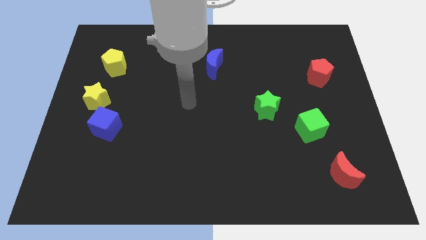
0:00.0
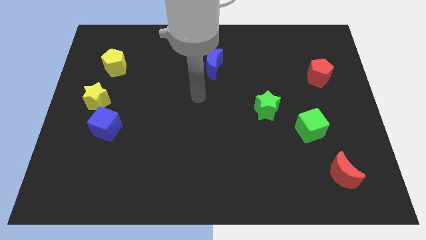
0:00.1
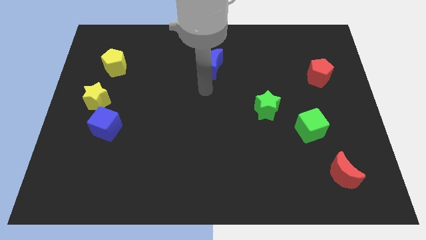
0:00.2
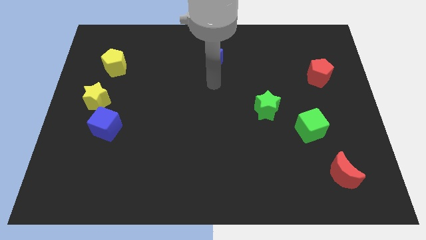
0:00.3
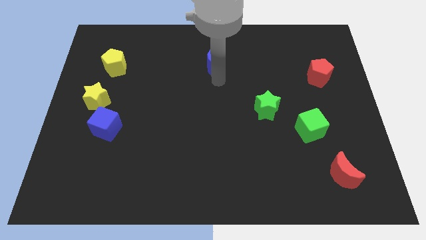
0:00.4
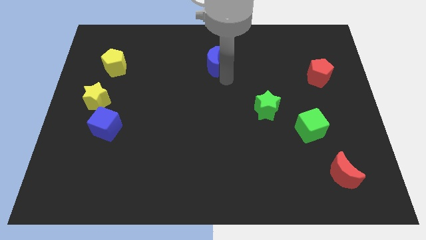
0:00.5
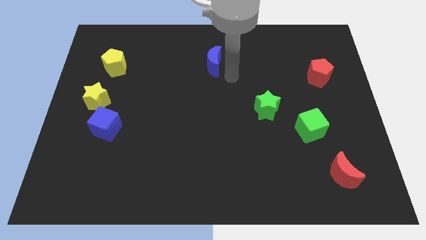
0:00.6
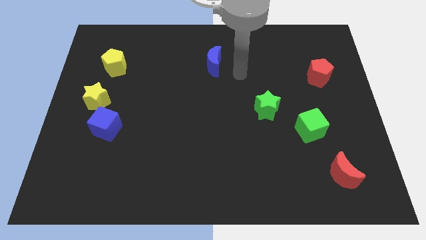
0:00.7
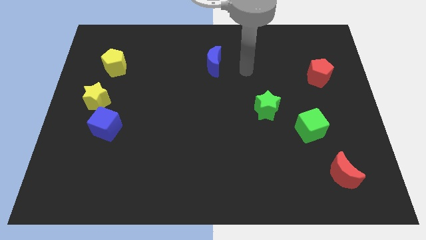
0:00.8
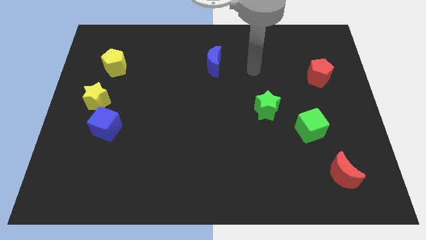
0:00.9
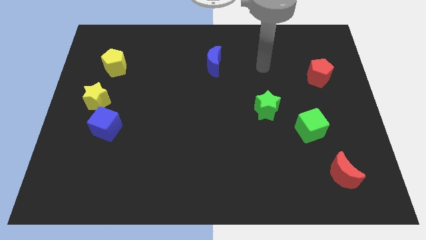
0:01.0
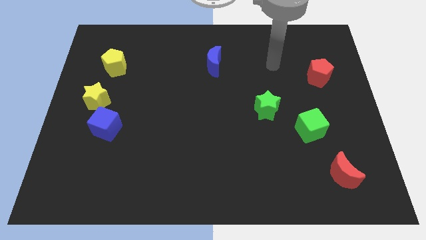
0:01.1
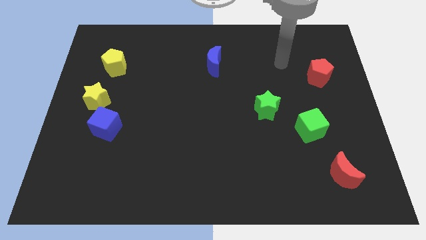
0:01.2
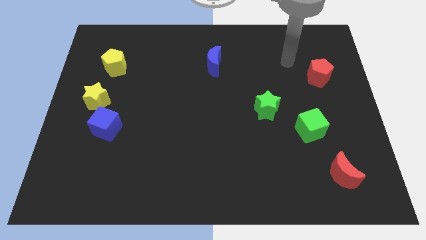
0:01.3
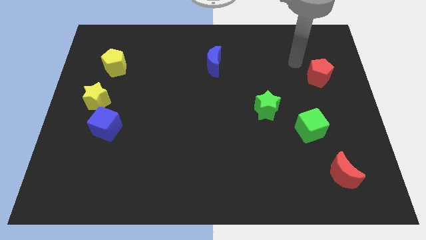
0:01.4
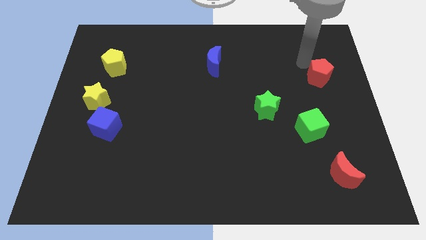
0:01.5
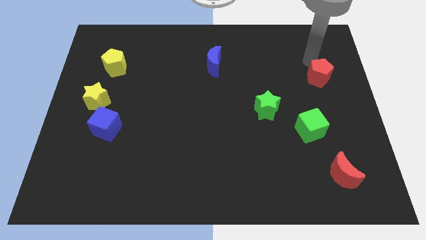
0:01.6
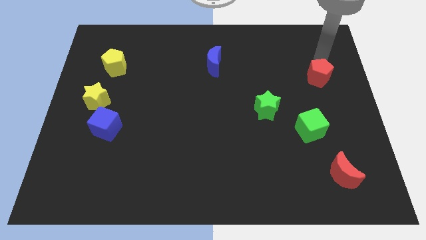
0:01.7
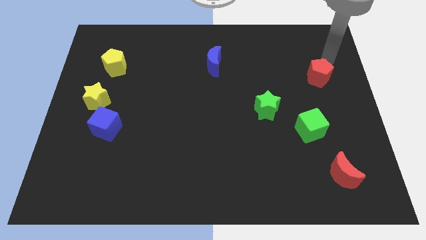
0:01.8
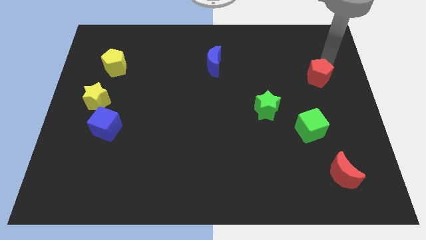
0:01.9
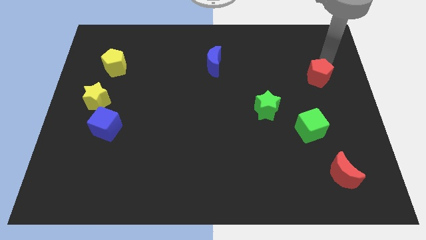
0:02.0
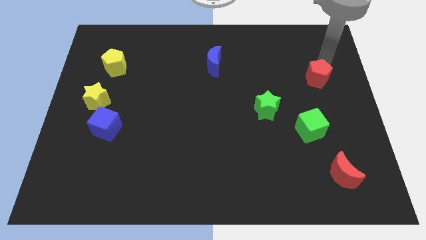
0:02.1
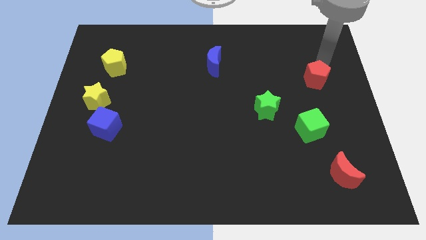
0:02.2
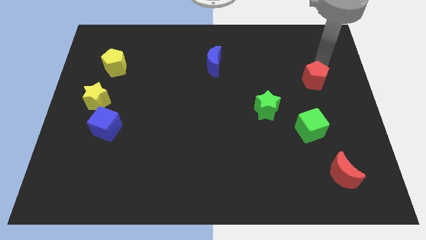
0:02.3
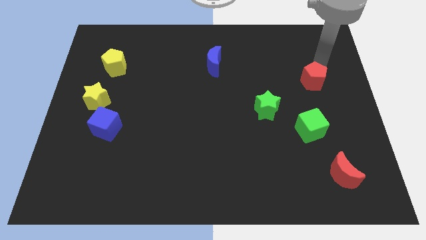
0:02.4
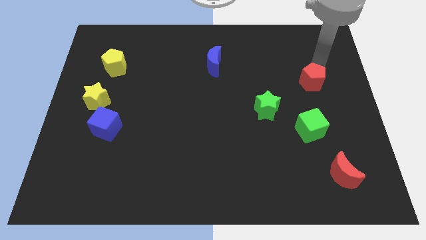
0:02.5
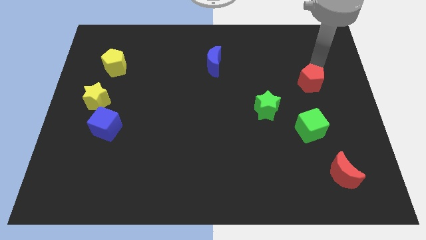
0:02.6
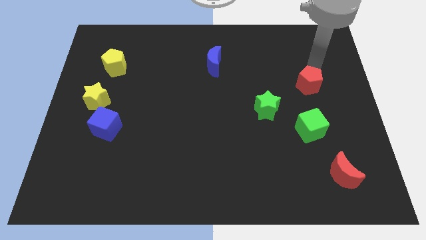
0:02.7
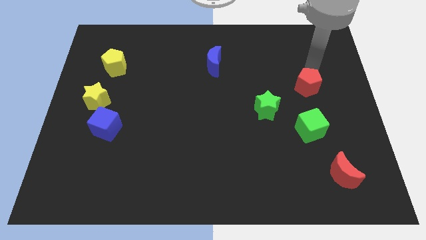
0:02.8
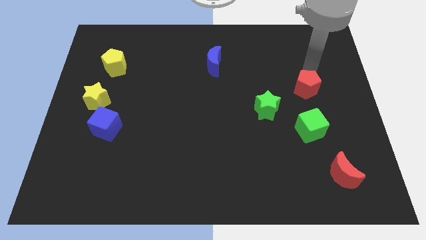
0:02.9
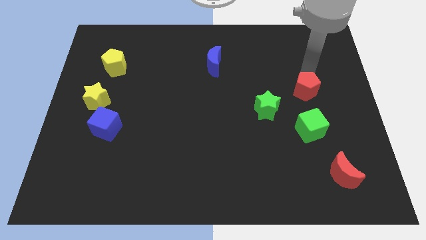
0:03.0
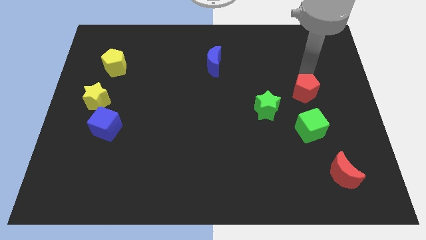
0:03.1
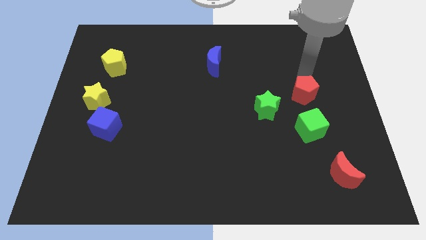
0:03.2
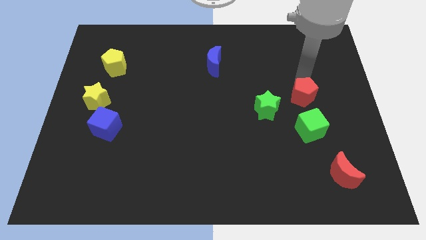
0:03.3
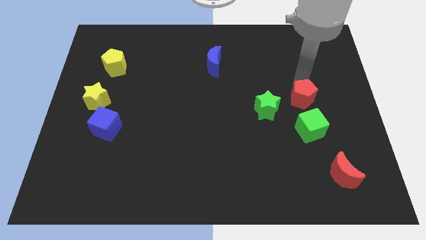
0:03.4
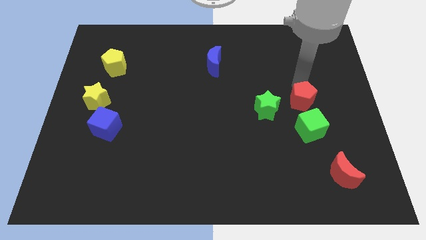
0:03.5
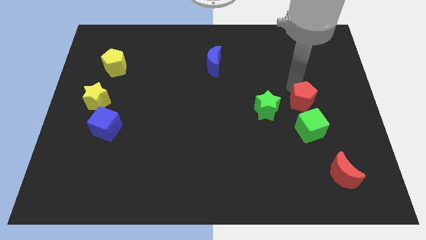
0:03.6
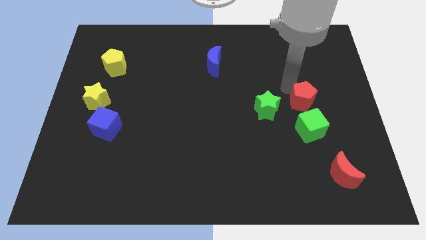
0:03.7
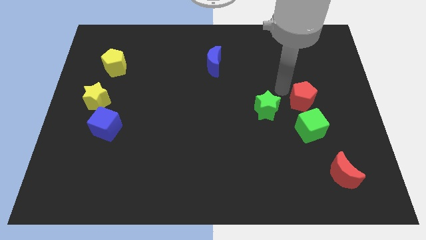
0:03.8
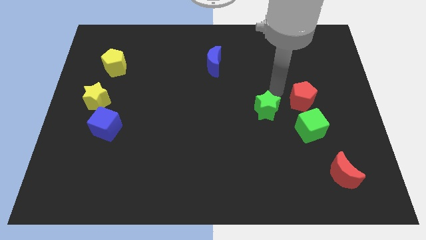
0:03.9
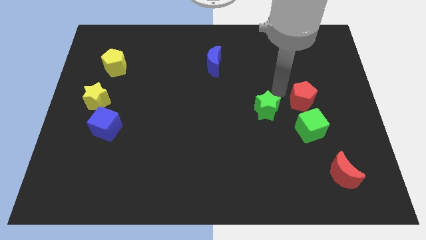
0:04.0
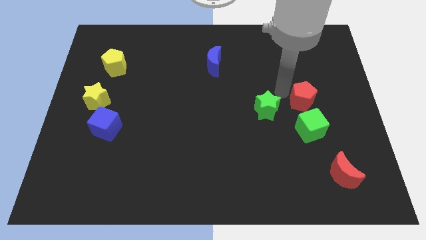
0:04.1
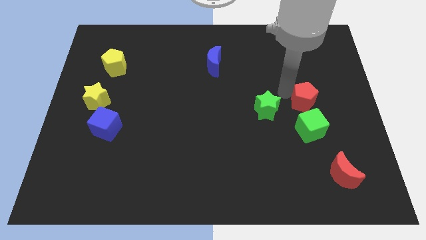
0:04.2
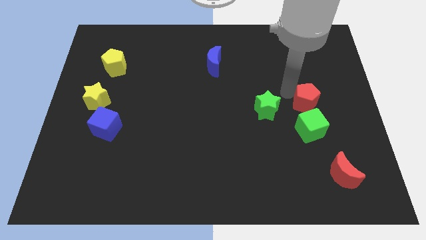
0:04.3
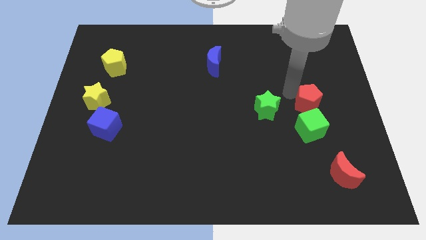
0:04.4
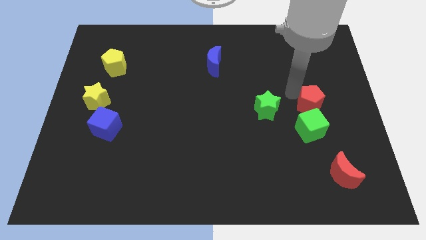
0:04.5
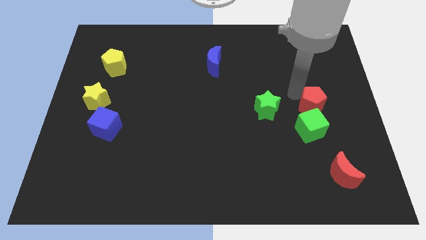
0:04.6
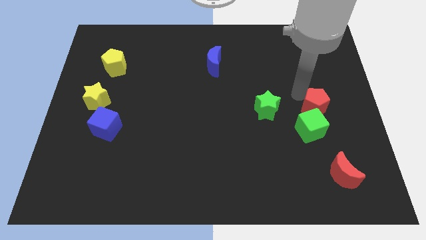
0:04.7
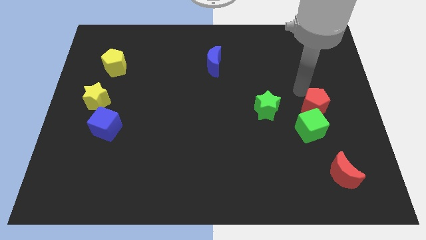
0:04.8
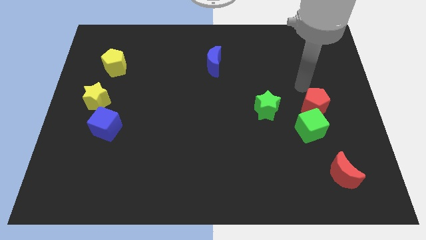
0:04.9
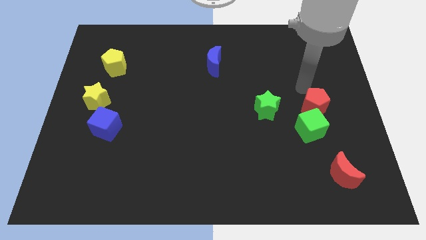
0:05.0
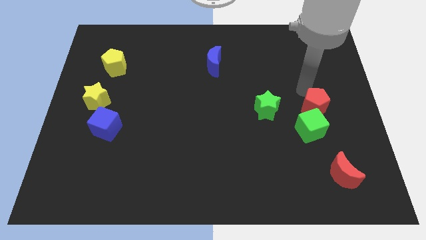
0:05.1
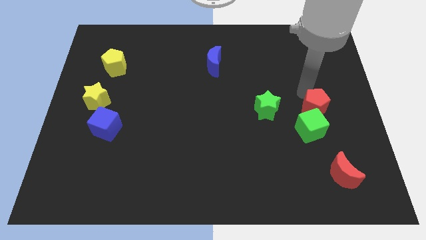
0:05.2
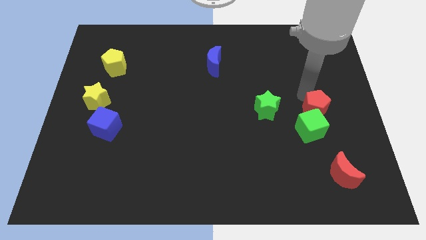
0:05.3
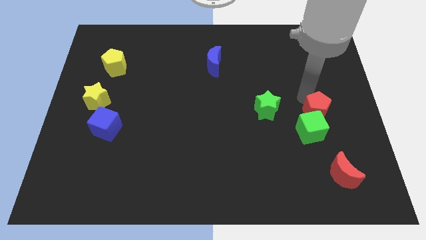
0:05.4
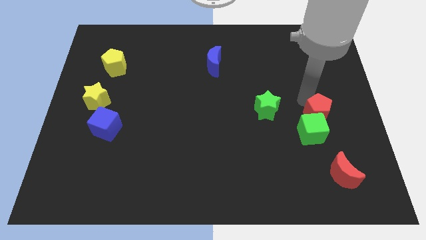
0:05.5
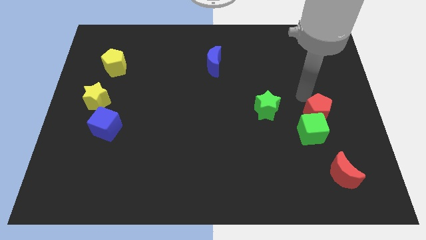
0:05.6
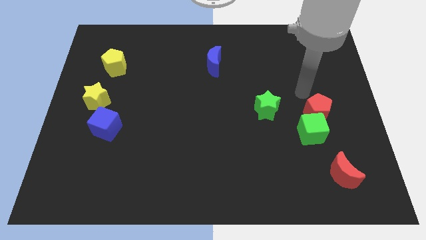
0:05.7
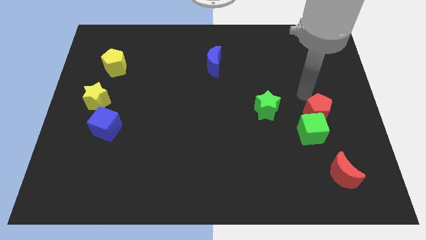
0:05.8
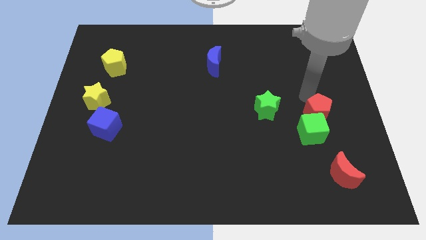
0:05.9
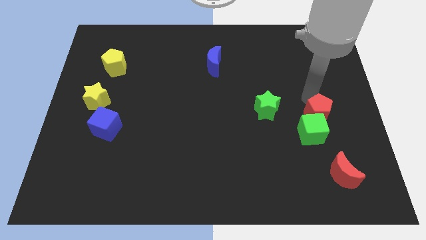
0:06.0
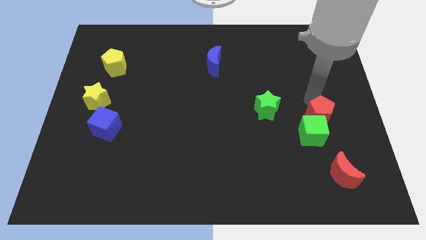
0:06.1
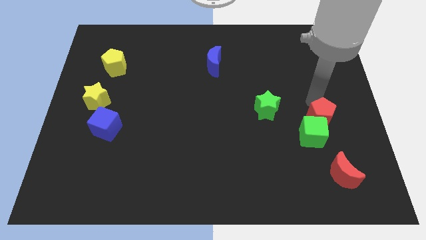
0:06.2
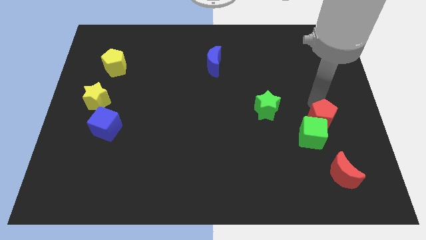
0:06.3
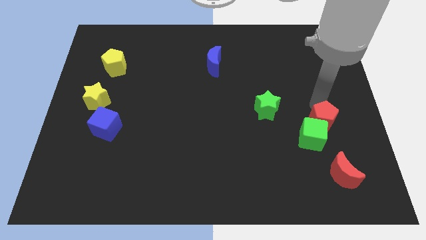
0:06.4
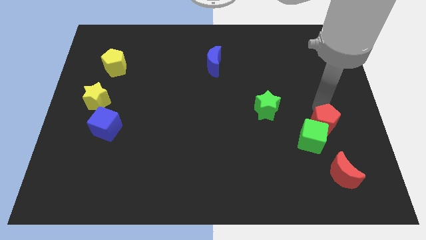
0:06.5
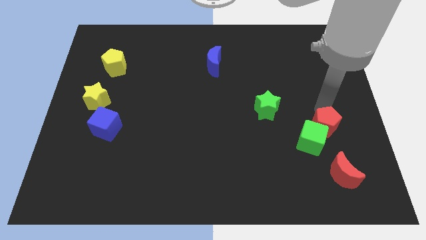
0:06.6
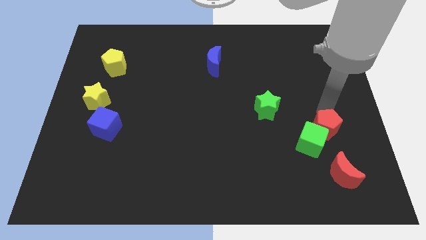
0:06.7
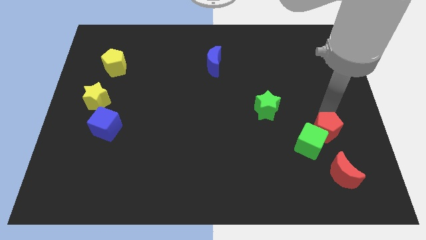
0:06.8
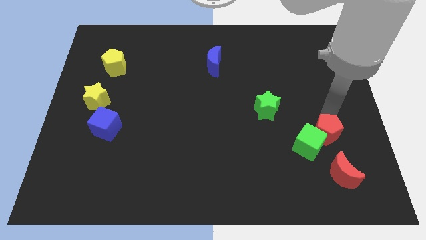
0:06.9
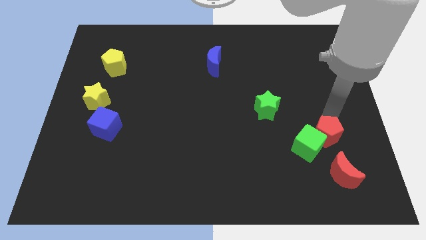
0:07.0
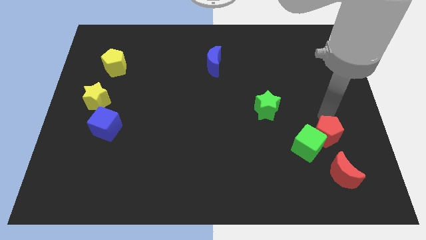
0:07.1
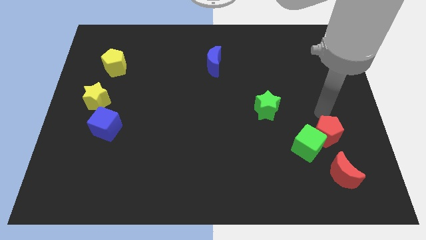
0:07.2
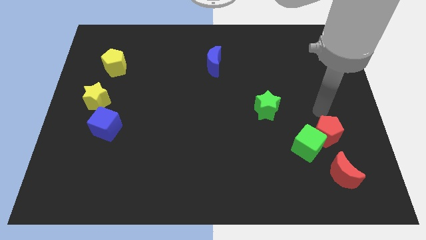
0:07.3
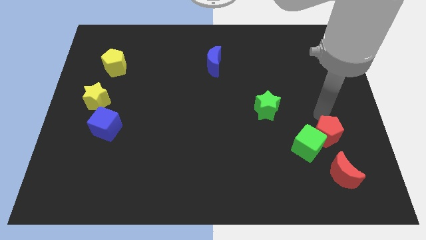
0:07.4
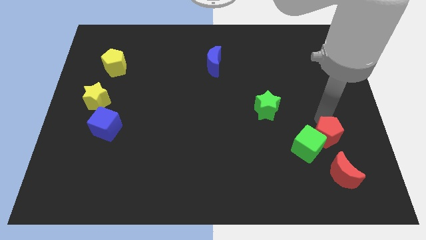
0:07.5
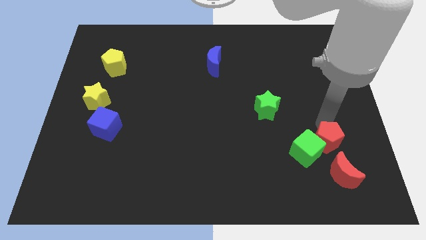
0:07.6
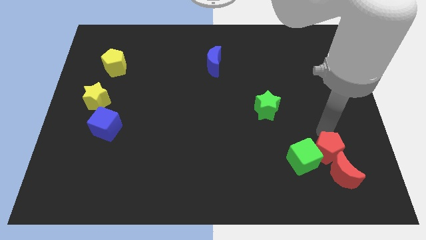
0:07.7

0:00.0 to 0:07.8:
push the red pentagon towards the red moon
